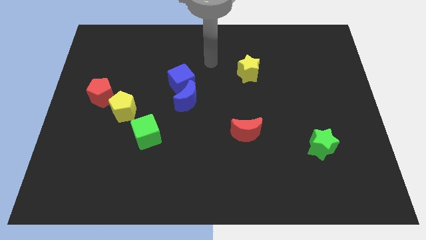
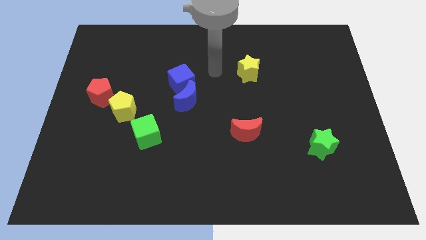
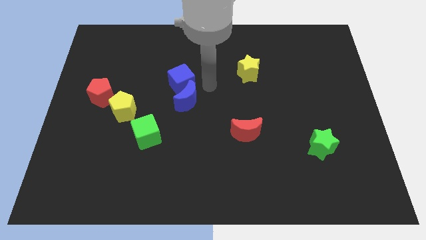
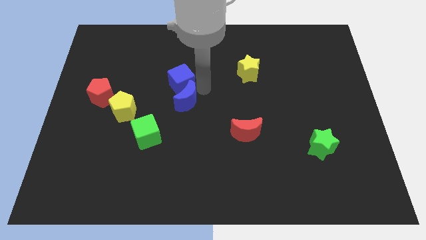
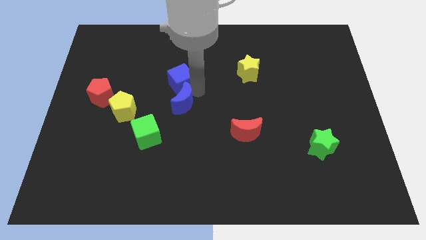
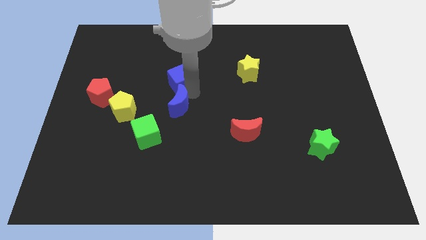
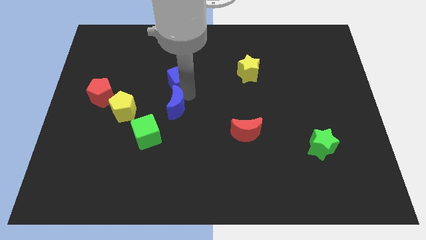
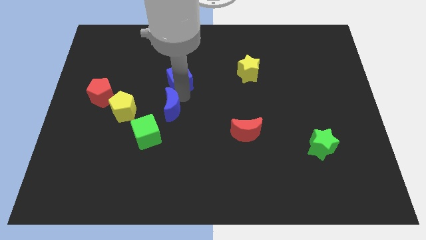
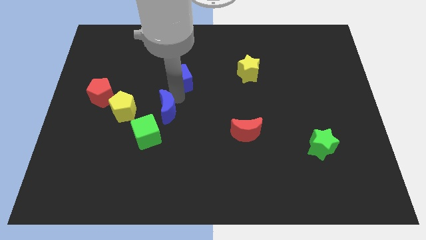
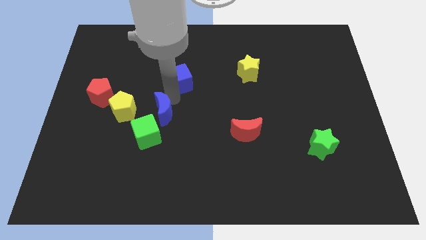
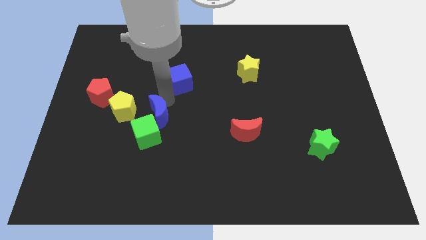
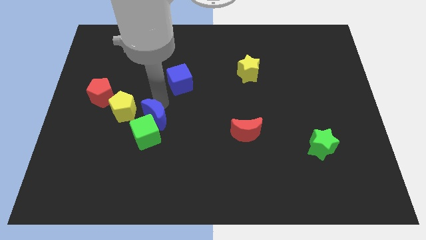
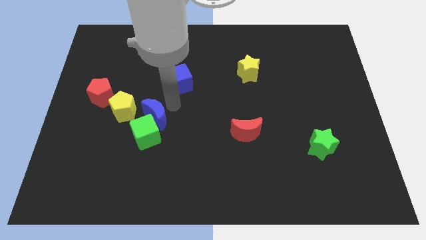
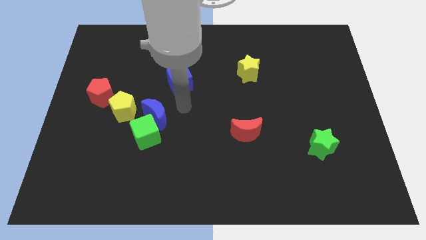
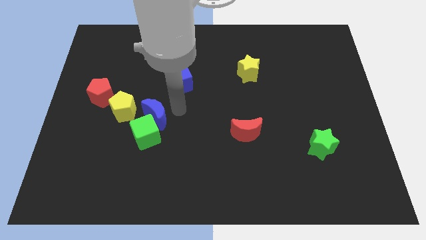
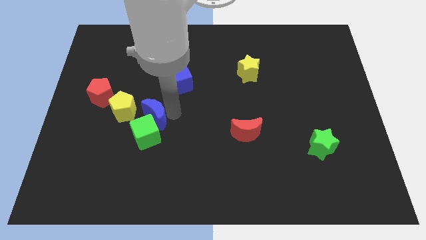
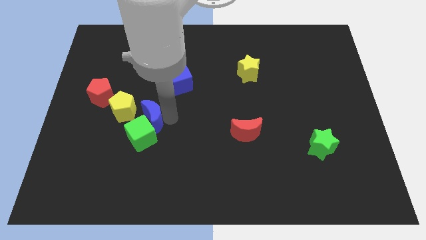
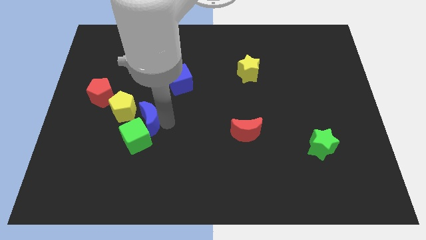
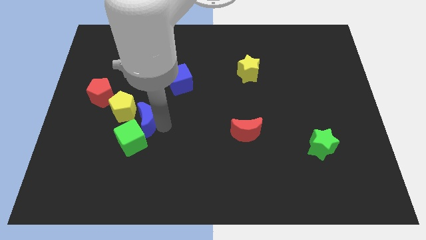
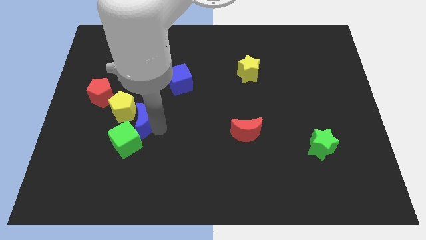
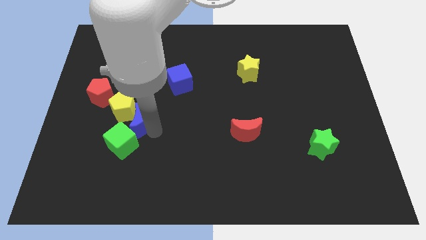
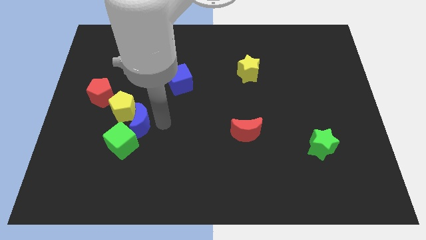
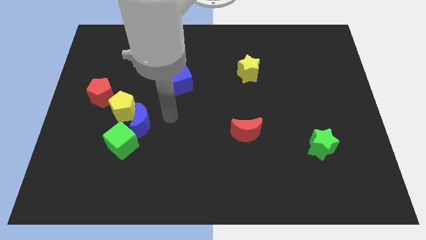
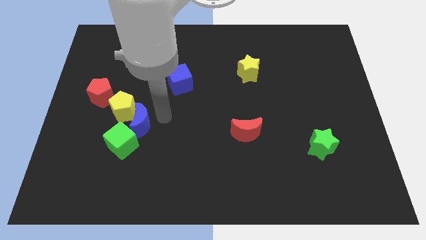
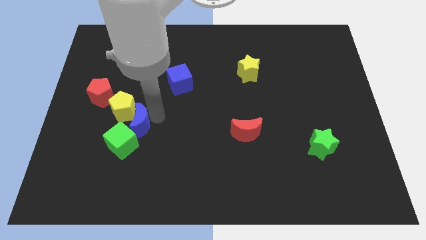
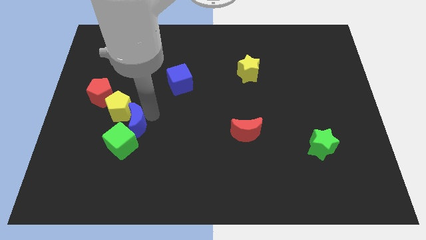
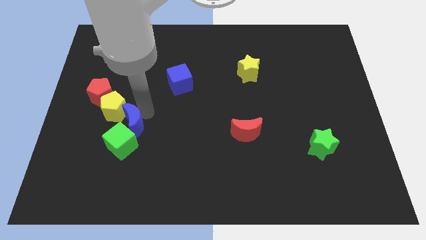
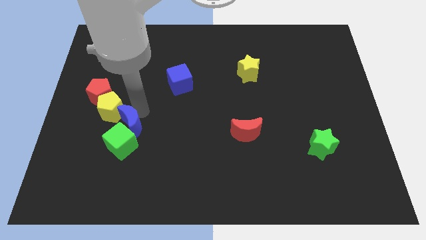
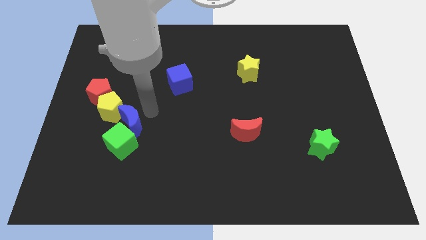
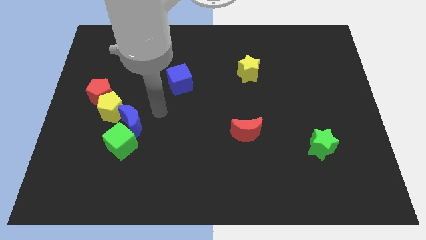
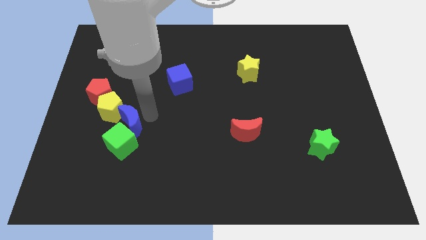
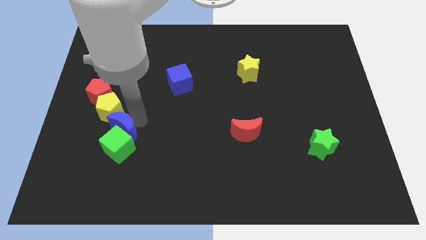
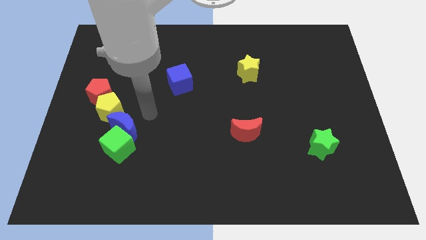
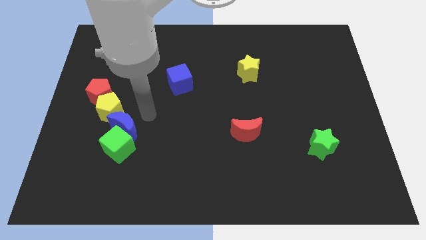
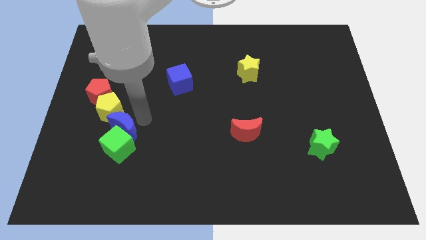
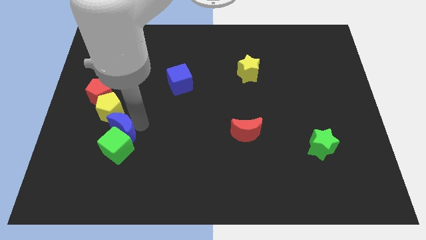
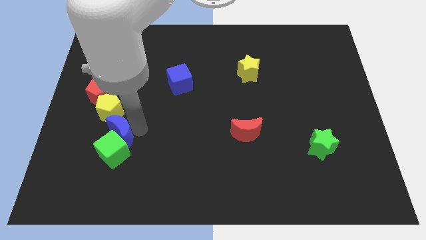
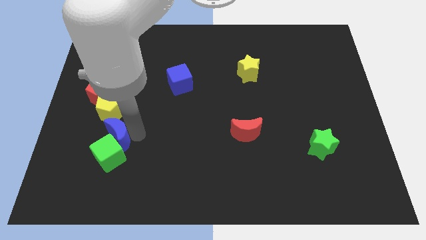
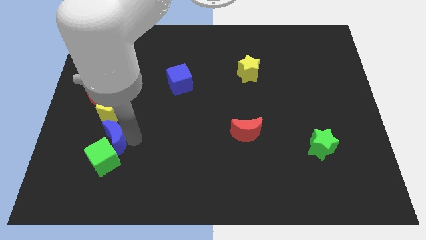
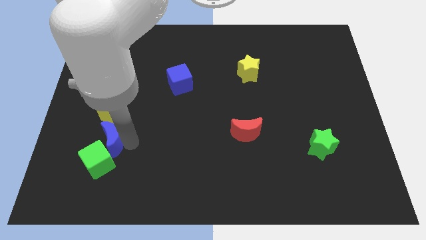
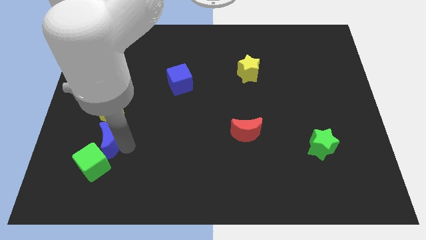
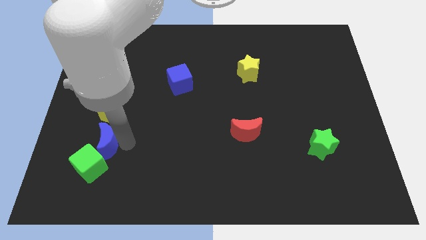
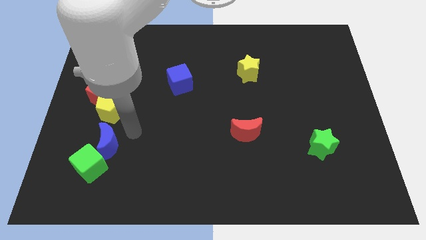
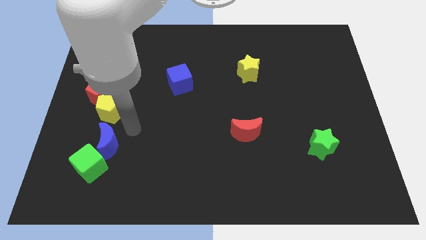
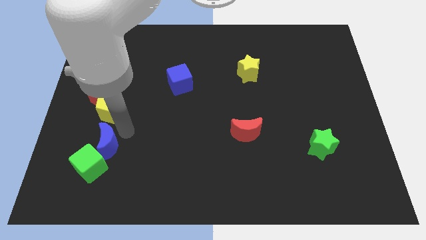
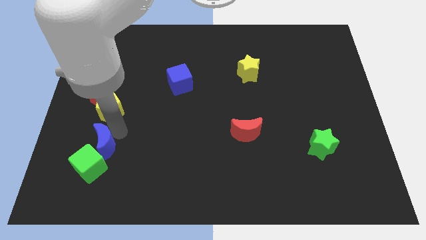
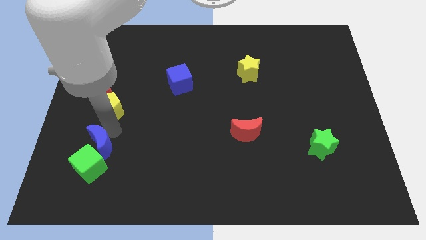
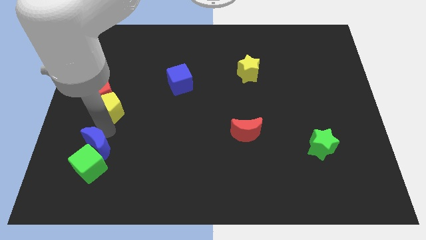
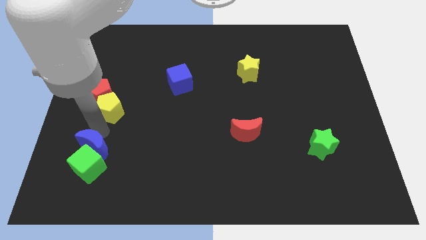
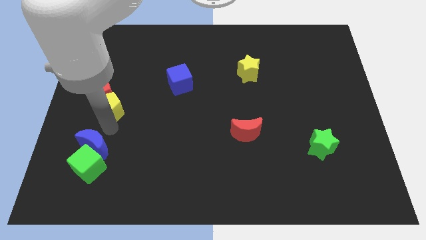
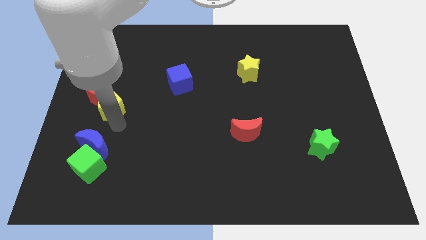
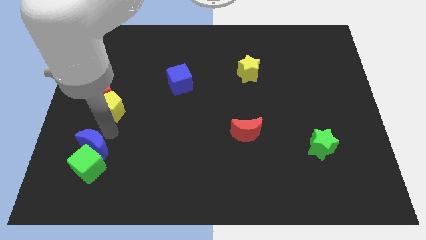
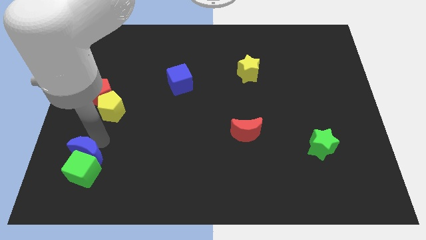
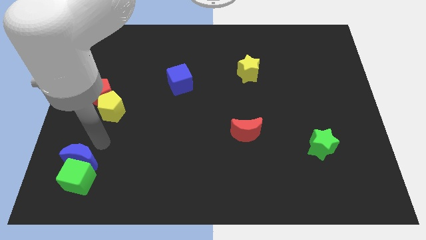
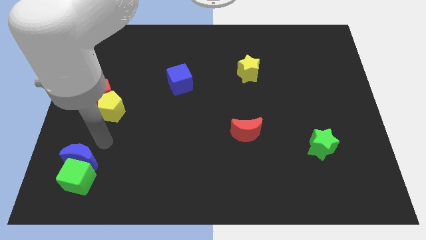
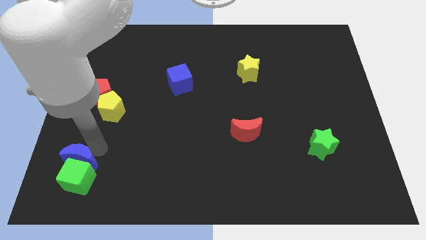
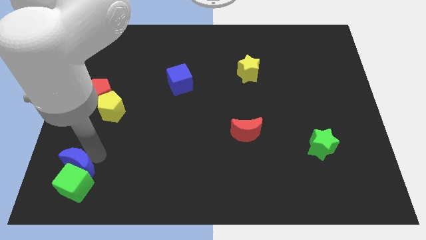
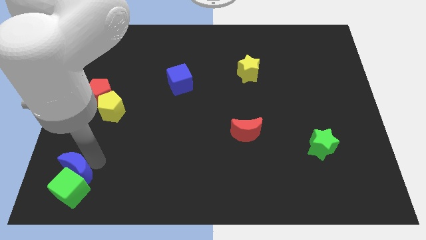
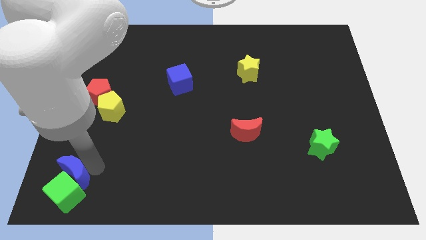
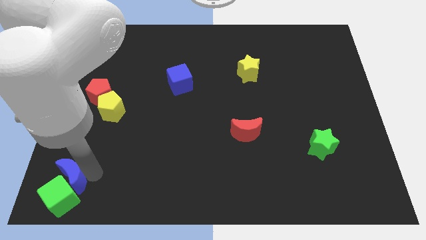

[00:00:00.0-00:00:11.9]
move the blue moon to the bottom left corner
